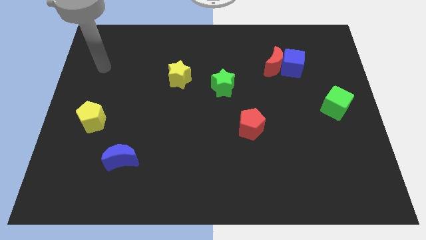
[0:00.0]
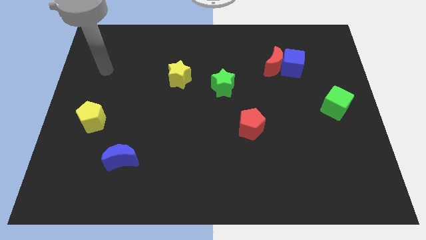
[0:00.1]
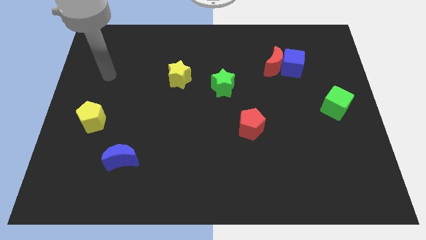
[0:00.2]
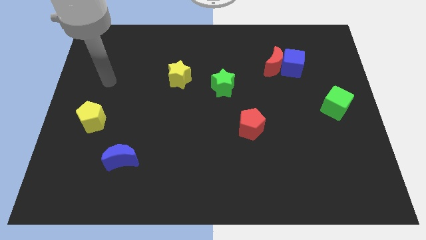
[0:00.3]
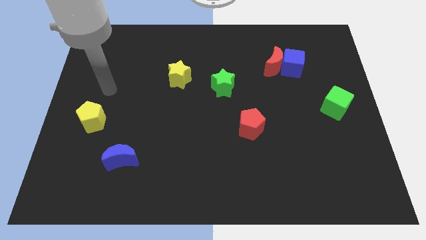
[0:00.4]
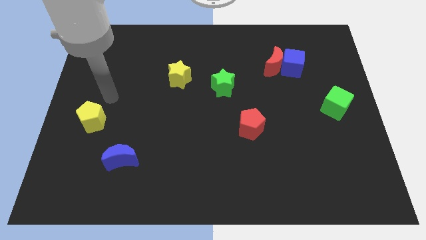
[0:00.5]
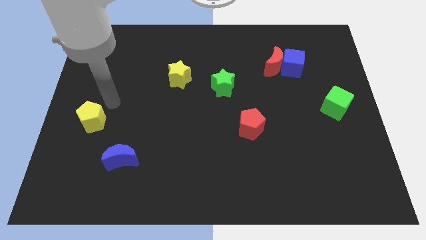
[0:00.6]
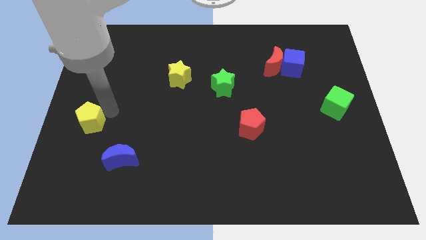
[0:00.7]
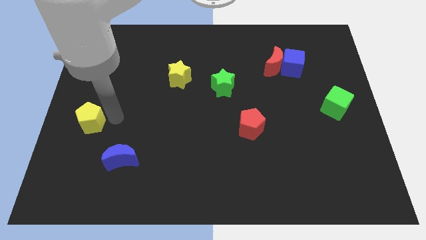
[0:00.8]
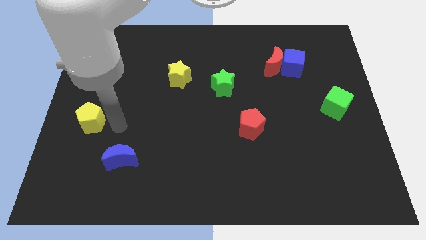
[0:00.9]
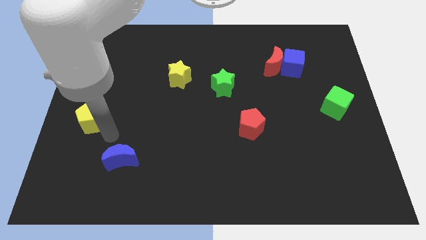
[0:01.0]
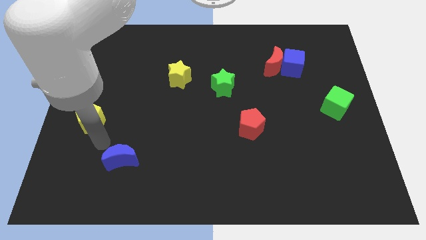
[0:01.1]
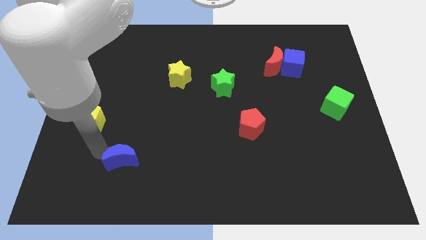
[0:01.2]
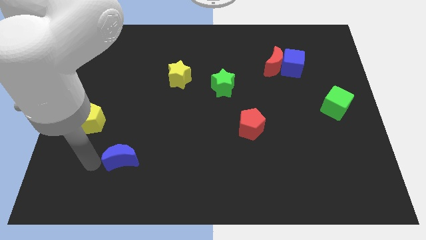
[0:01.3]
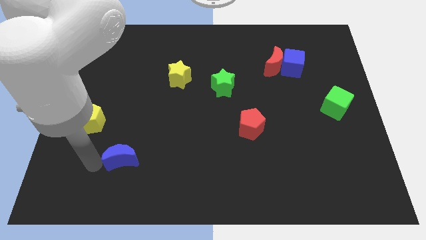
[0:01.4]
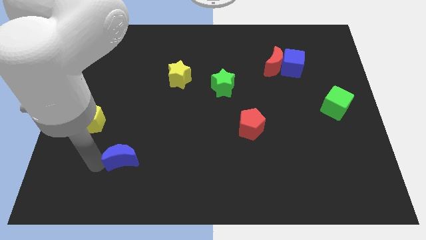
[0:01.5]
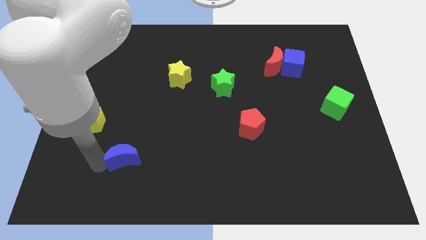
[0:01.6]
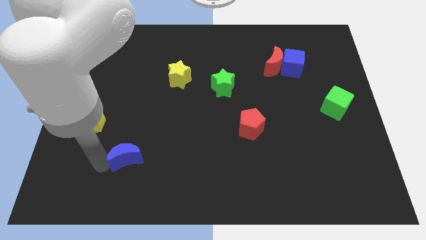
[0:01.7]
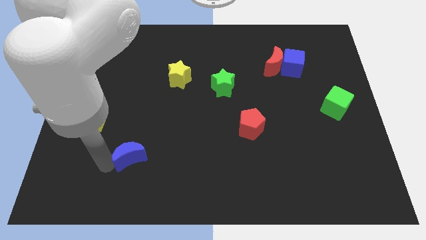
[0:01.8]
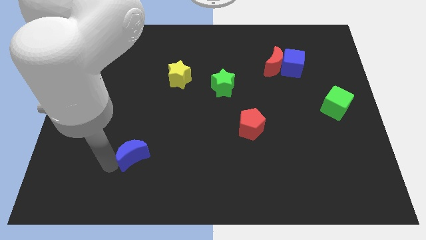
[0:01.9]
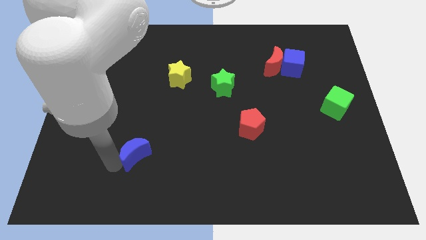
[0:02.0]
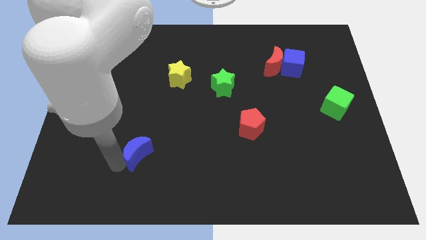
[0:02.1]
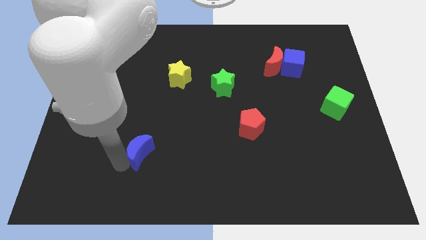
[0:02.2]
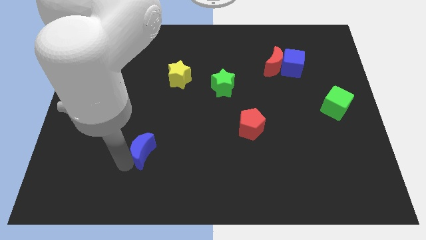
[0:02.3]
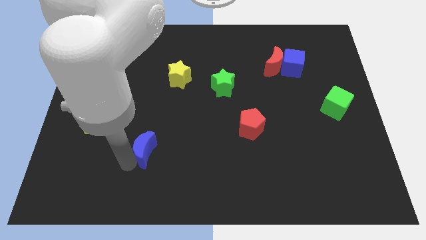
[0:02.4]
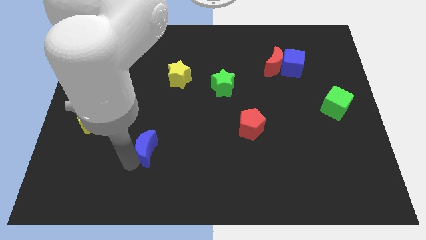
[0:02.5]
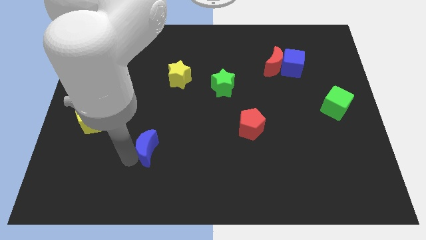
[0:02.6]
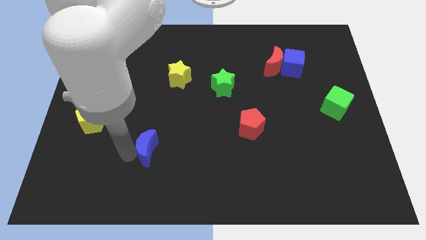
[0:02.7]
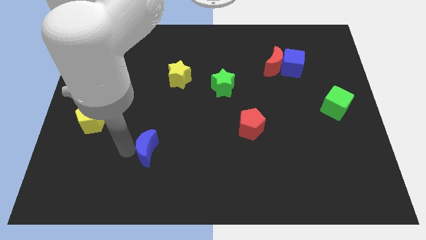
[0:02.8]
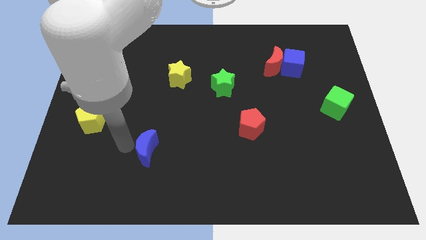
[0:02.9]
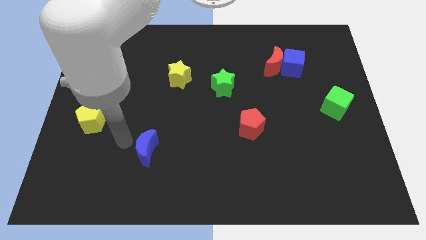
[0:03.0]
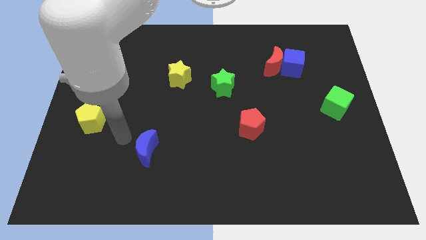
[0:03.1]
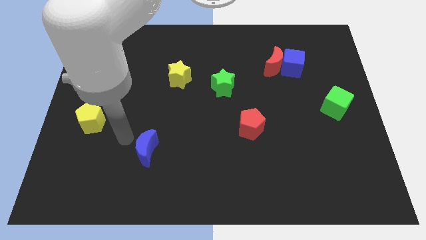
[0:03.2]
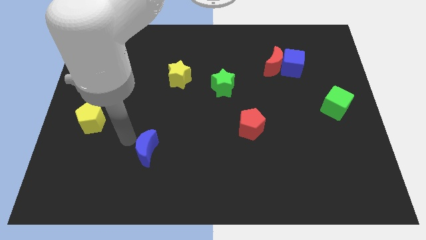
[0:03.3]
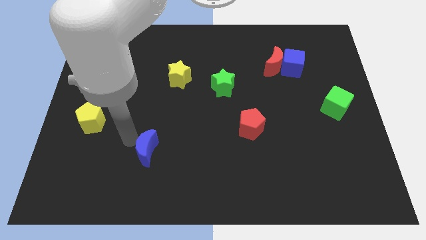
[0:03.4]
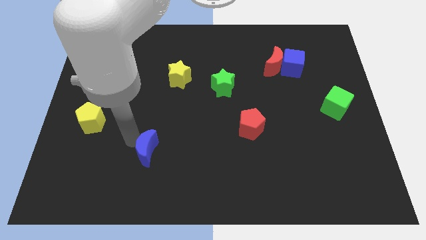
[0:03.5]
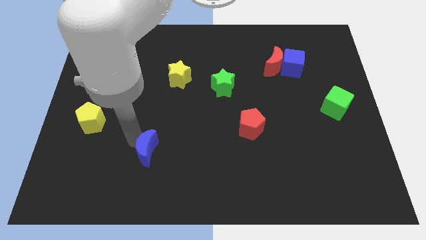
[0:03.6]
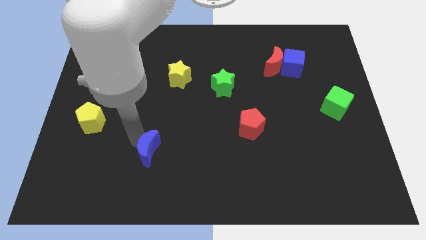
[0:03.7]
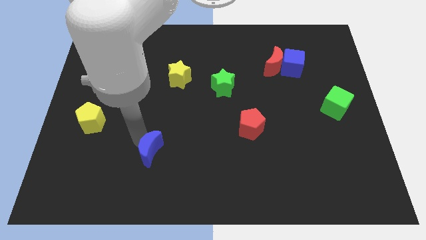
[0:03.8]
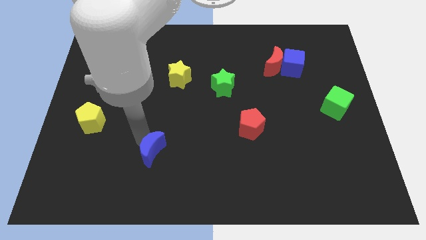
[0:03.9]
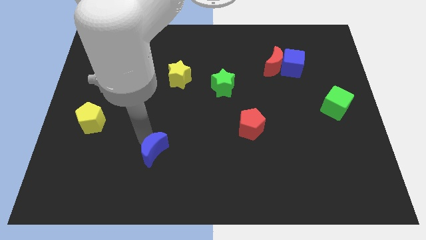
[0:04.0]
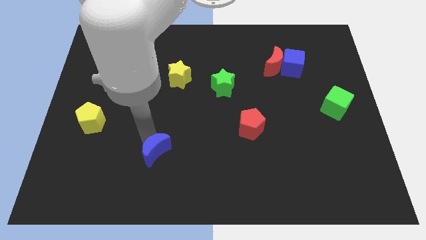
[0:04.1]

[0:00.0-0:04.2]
slightly push the blue moon to the right

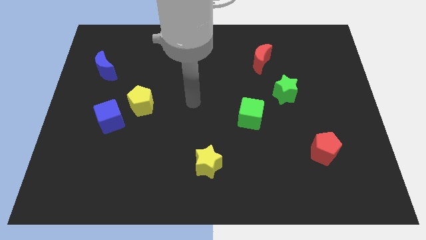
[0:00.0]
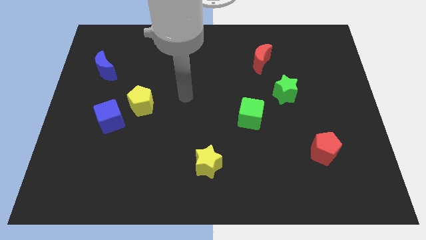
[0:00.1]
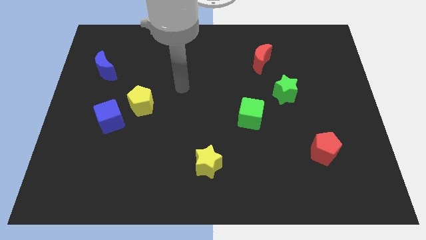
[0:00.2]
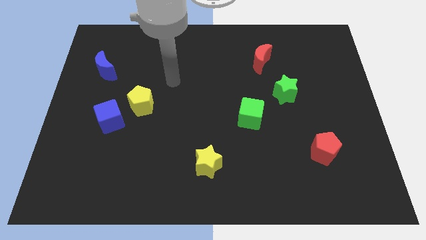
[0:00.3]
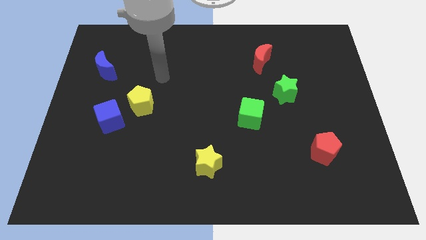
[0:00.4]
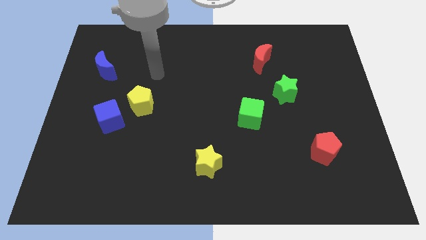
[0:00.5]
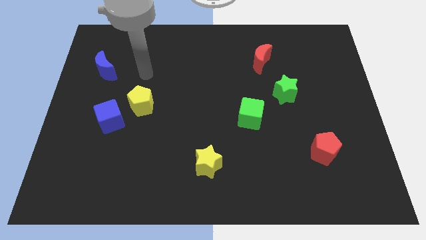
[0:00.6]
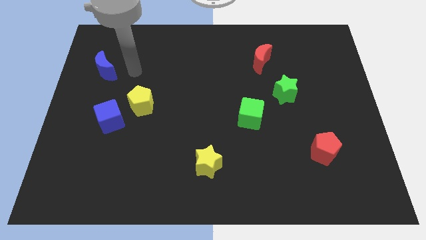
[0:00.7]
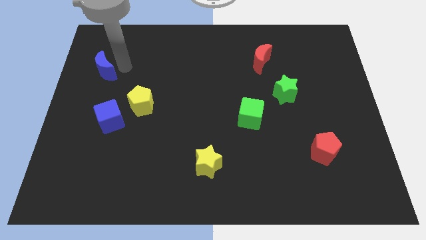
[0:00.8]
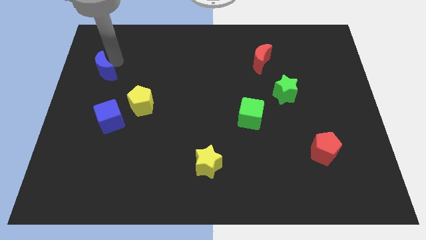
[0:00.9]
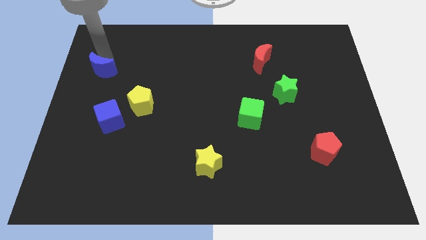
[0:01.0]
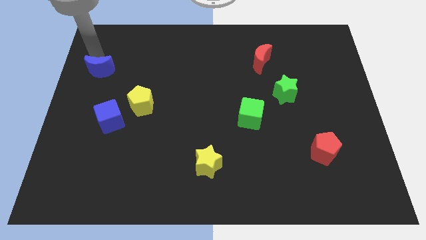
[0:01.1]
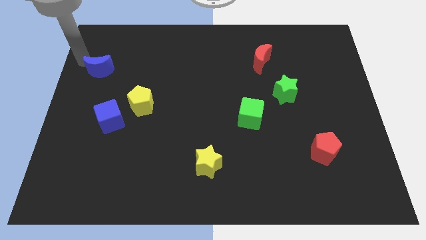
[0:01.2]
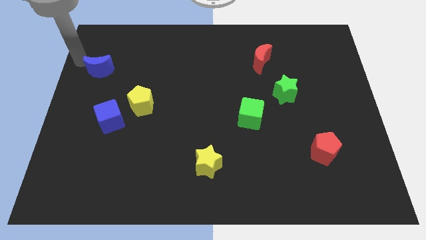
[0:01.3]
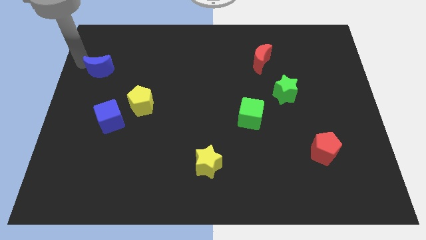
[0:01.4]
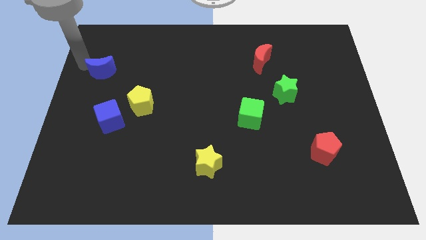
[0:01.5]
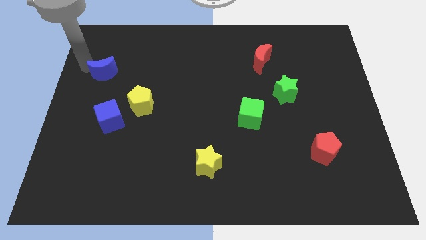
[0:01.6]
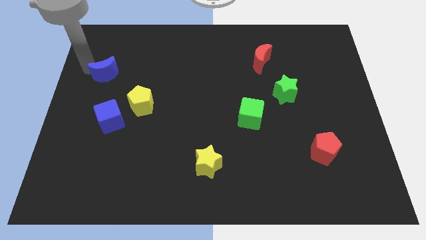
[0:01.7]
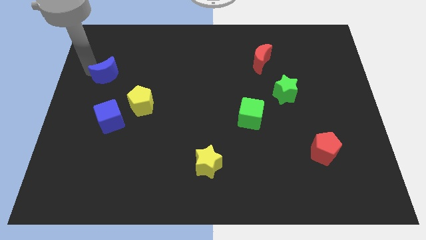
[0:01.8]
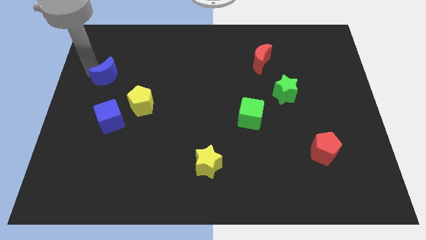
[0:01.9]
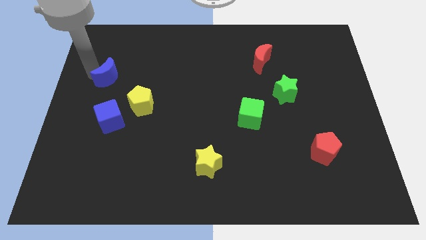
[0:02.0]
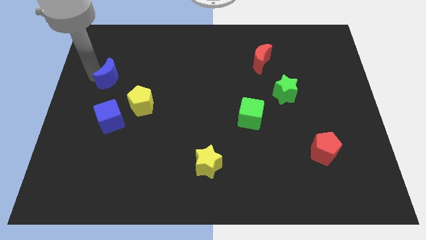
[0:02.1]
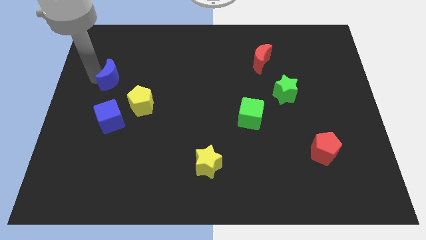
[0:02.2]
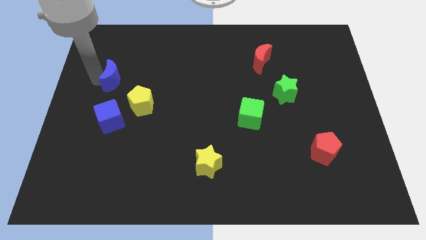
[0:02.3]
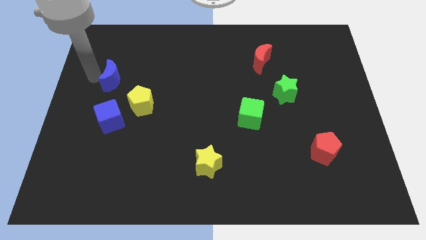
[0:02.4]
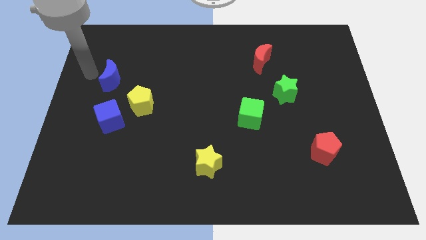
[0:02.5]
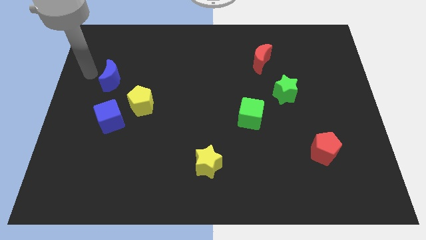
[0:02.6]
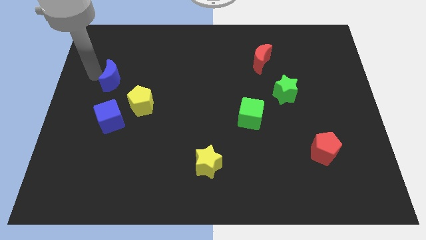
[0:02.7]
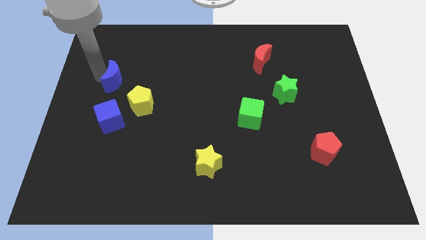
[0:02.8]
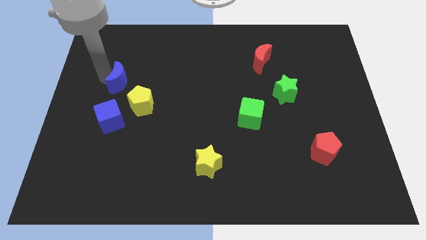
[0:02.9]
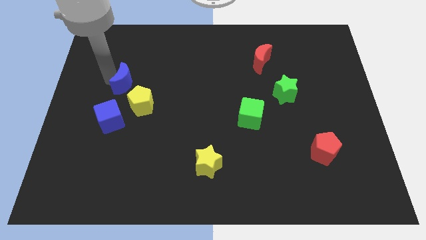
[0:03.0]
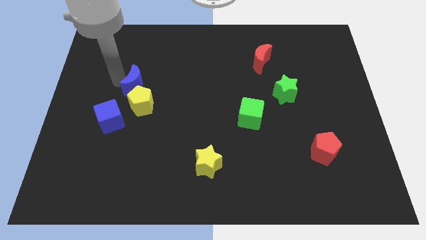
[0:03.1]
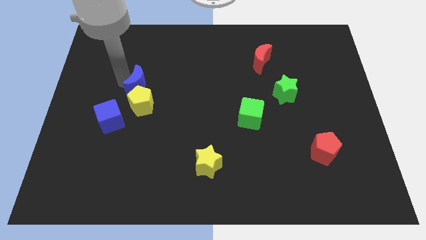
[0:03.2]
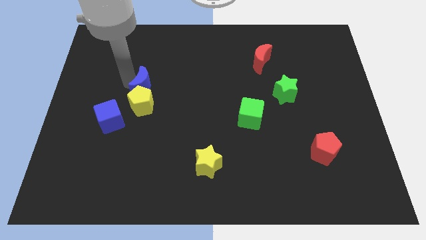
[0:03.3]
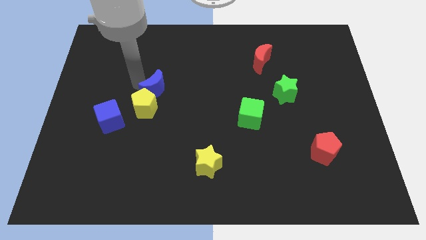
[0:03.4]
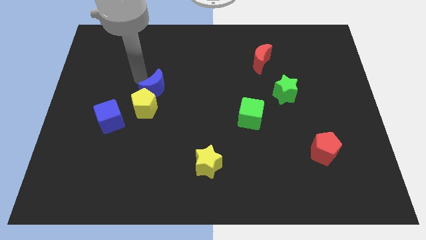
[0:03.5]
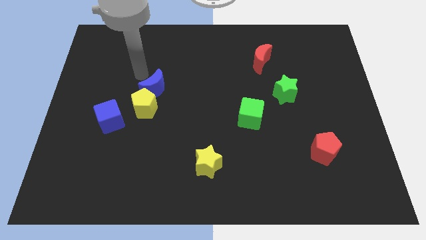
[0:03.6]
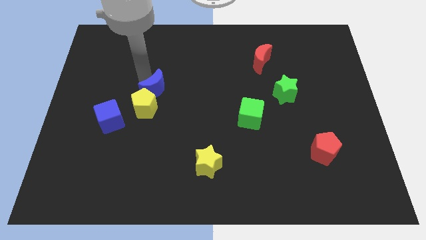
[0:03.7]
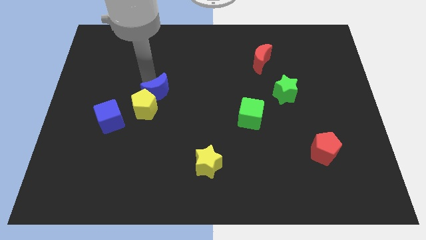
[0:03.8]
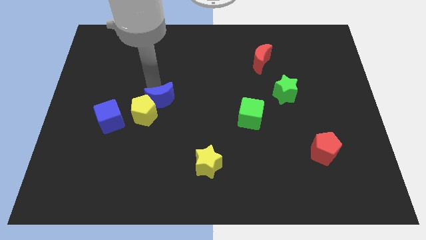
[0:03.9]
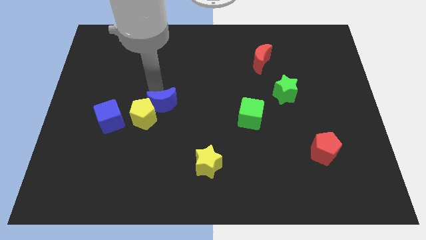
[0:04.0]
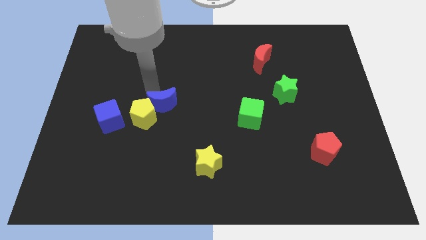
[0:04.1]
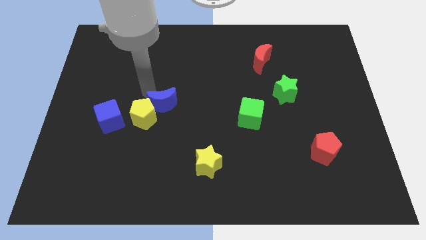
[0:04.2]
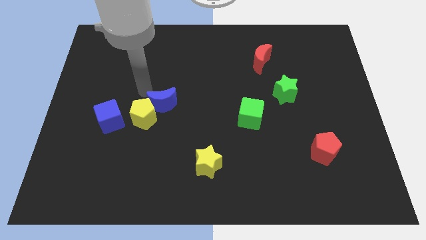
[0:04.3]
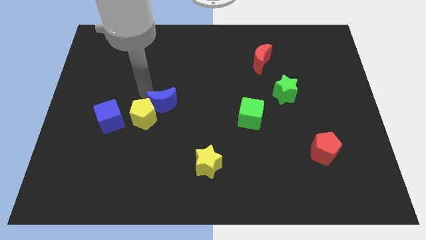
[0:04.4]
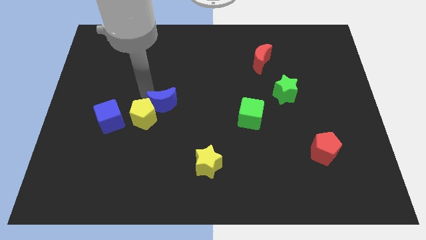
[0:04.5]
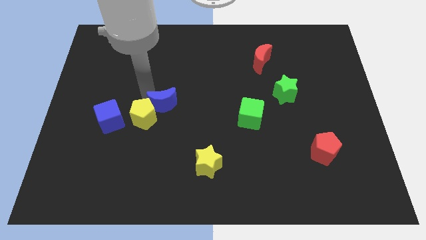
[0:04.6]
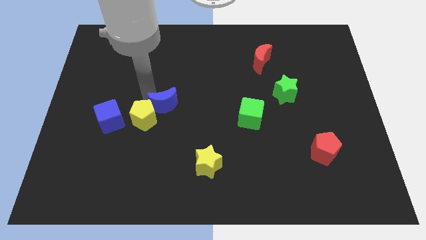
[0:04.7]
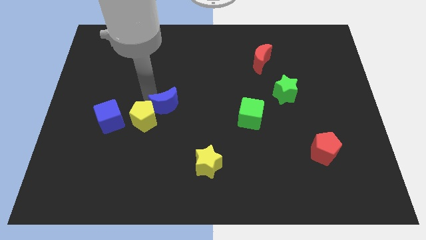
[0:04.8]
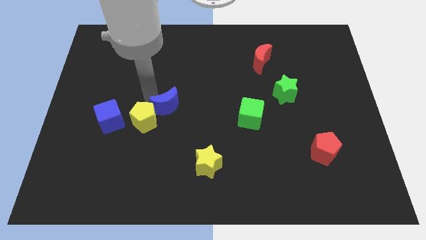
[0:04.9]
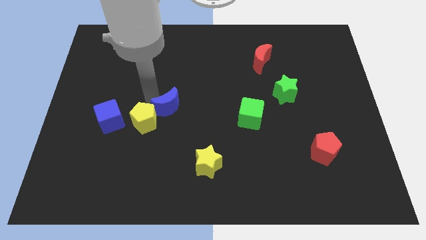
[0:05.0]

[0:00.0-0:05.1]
push the blue moon downwards and to the right
